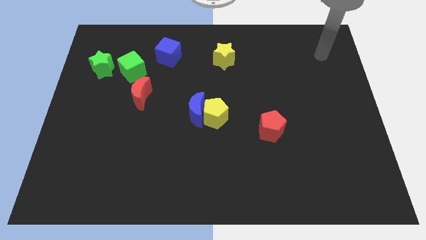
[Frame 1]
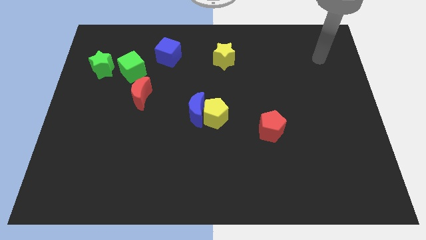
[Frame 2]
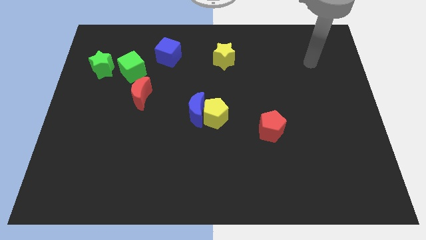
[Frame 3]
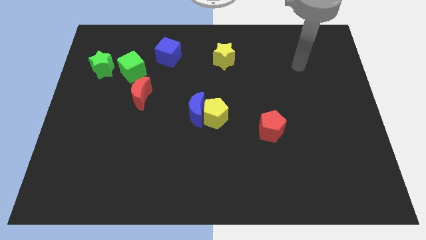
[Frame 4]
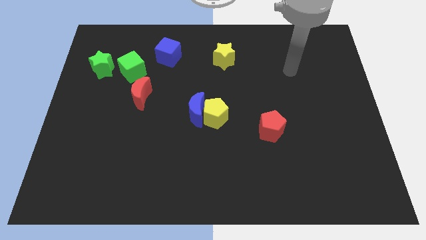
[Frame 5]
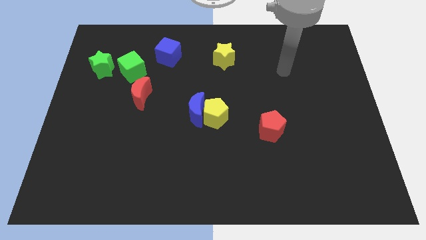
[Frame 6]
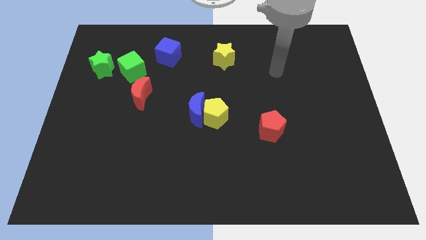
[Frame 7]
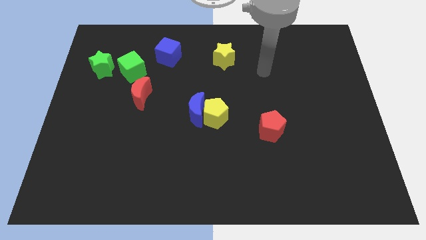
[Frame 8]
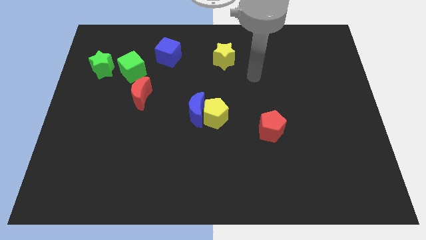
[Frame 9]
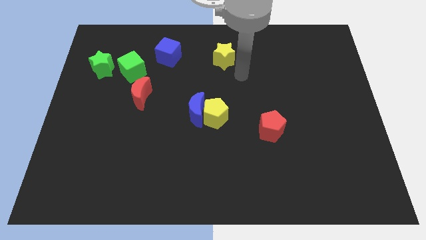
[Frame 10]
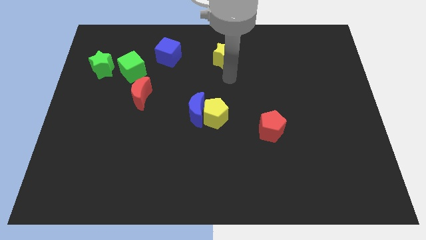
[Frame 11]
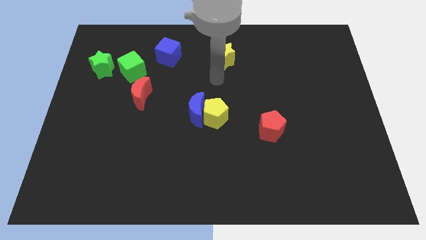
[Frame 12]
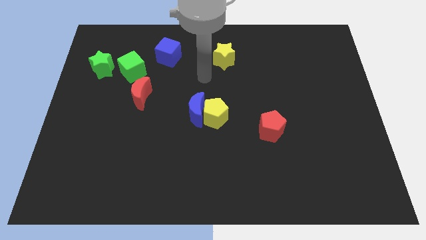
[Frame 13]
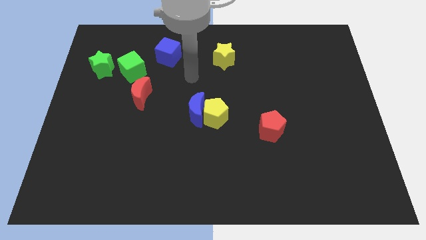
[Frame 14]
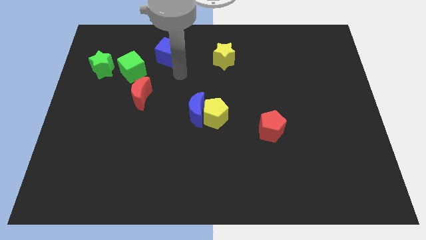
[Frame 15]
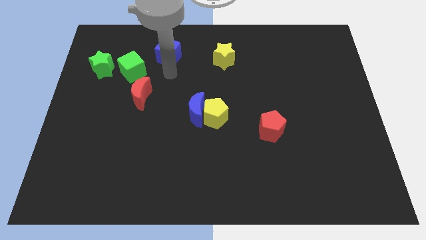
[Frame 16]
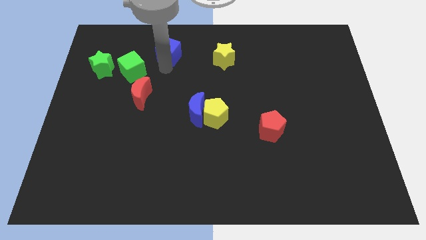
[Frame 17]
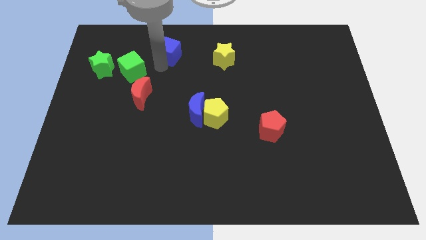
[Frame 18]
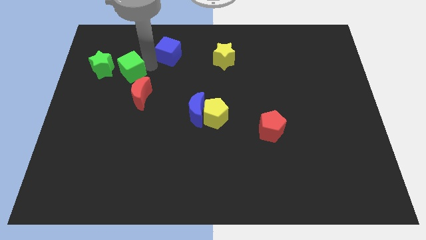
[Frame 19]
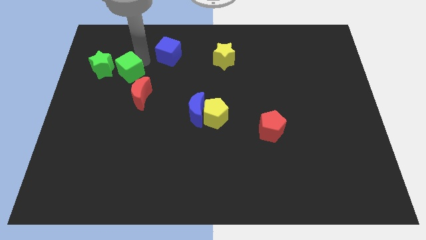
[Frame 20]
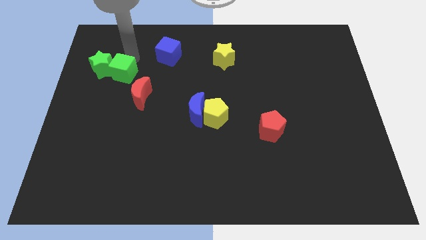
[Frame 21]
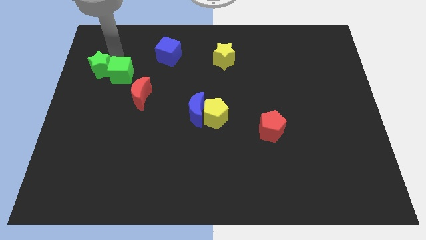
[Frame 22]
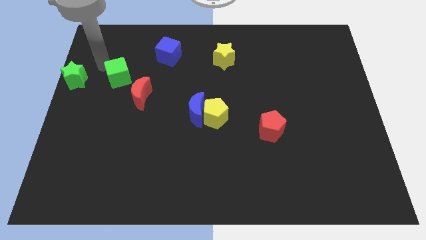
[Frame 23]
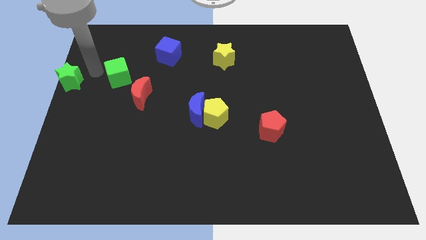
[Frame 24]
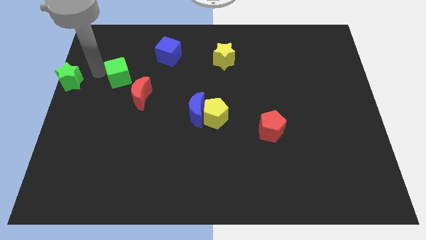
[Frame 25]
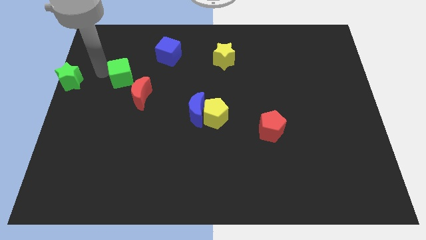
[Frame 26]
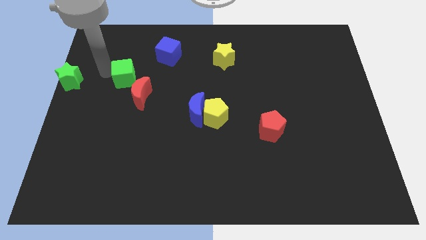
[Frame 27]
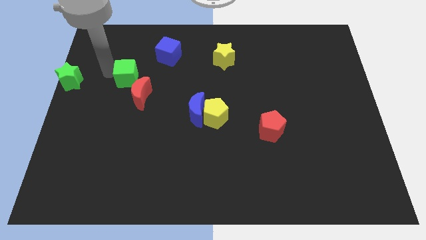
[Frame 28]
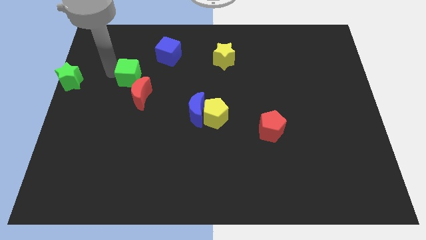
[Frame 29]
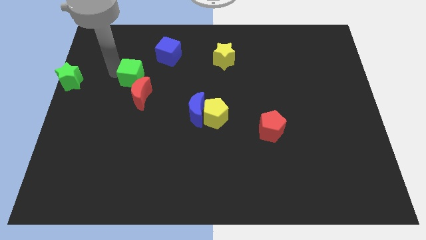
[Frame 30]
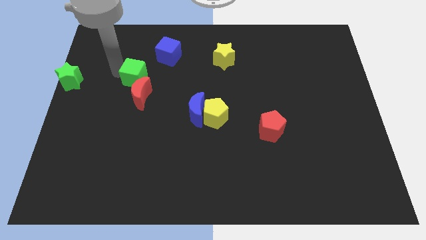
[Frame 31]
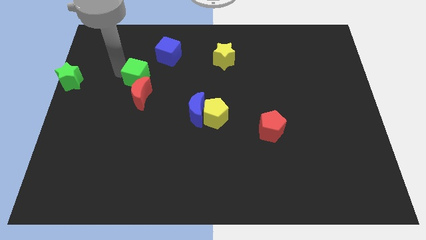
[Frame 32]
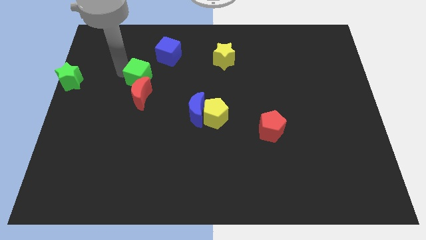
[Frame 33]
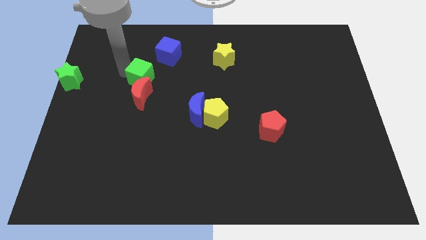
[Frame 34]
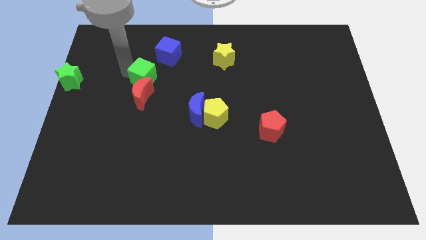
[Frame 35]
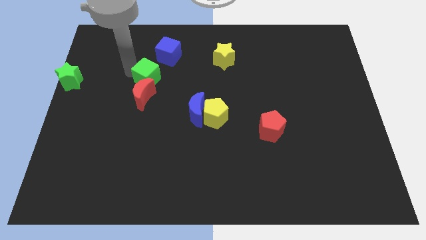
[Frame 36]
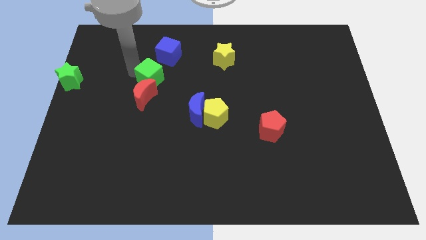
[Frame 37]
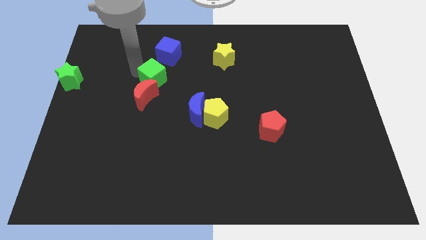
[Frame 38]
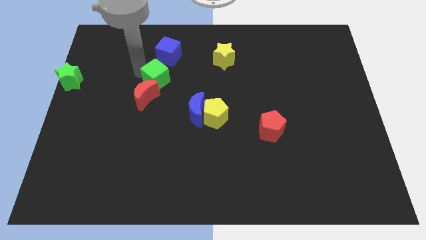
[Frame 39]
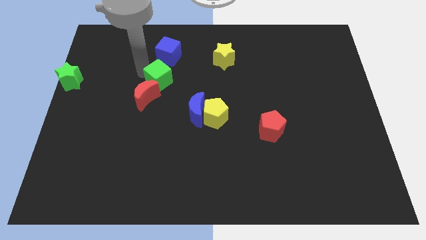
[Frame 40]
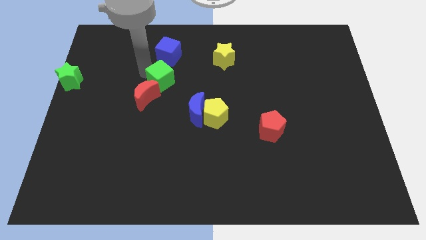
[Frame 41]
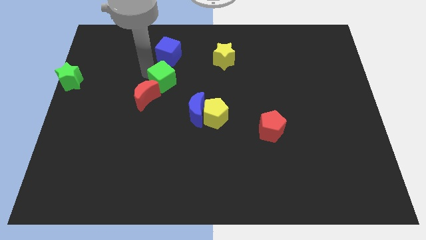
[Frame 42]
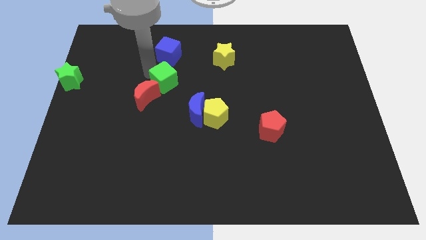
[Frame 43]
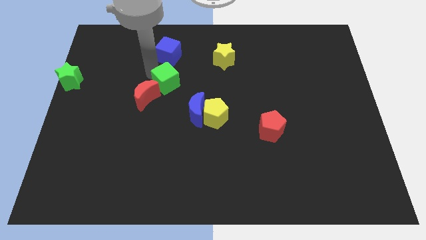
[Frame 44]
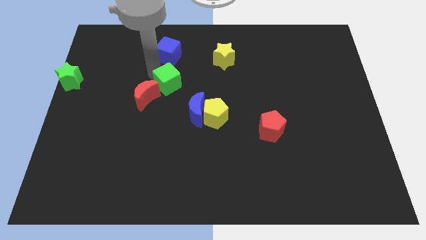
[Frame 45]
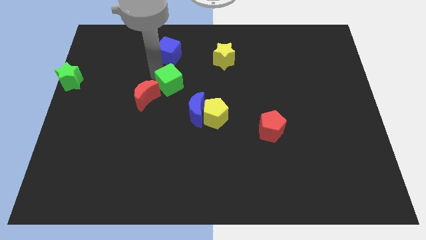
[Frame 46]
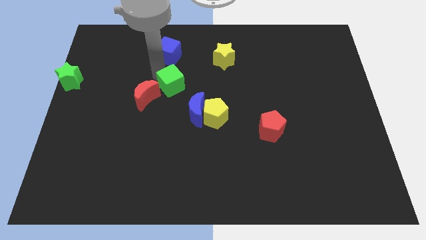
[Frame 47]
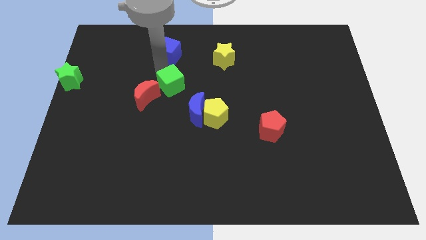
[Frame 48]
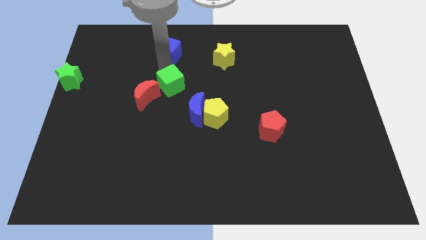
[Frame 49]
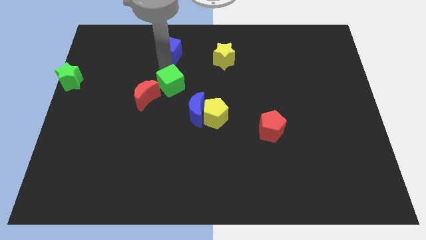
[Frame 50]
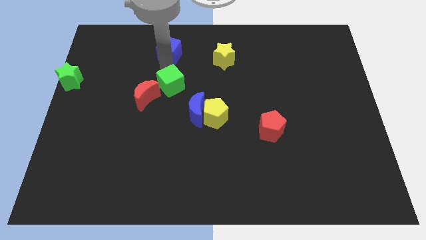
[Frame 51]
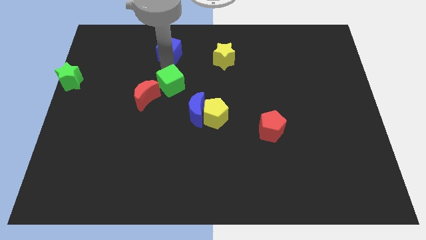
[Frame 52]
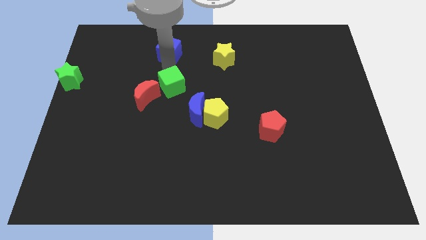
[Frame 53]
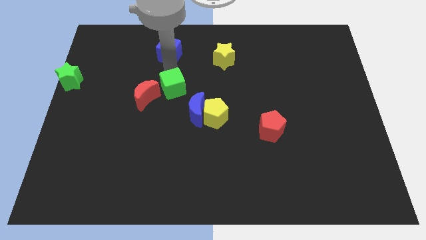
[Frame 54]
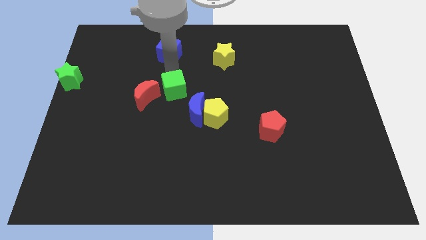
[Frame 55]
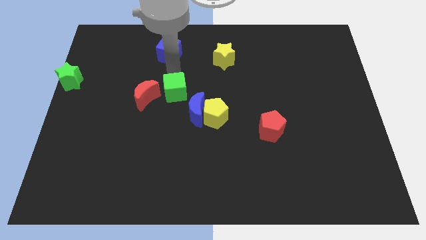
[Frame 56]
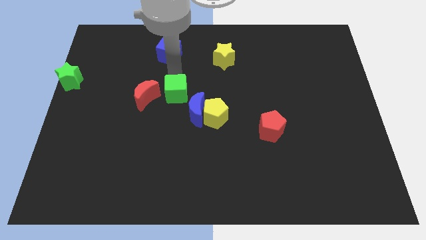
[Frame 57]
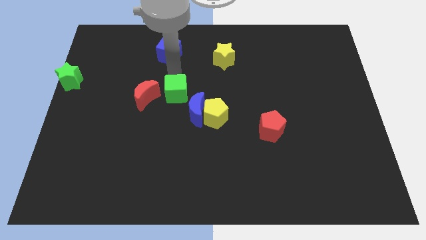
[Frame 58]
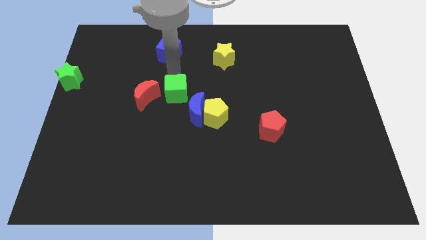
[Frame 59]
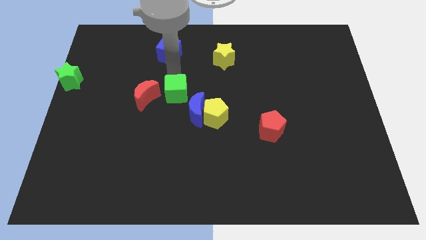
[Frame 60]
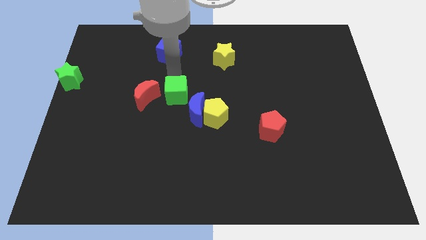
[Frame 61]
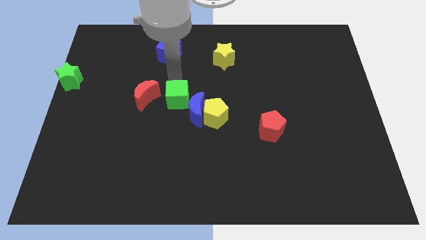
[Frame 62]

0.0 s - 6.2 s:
move the green cube close to the blue moon
